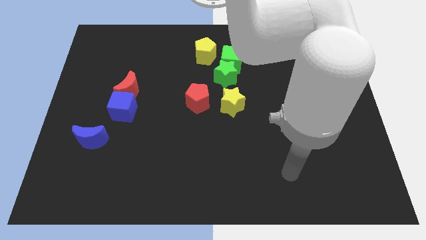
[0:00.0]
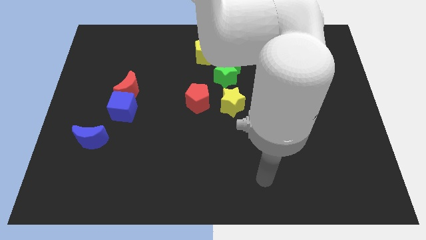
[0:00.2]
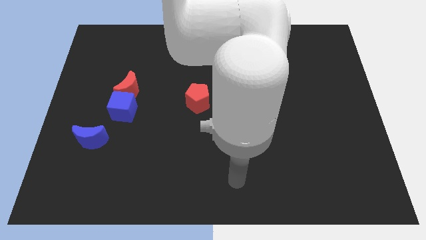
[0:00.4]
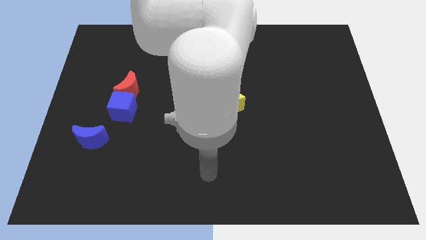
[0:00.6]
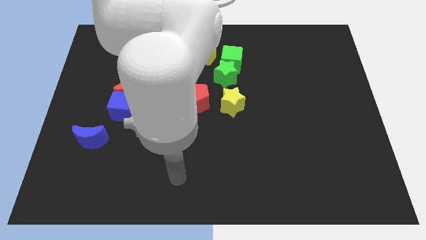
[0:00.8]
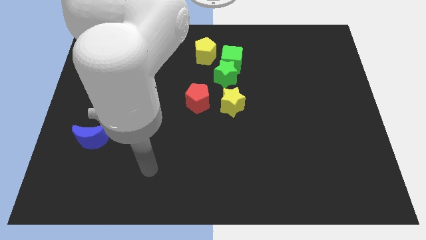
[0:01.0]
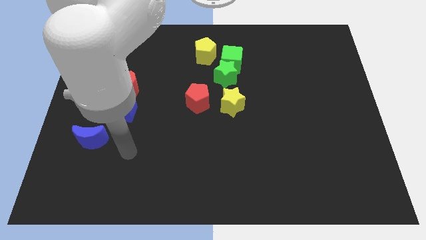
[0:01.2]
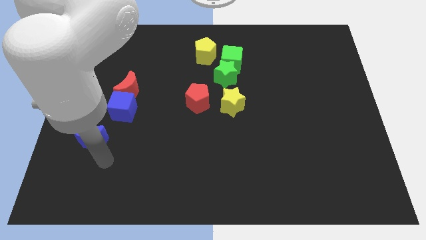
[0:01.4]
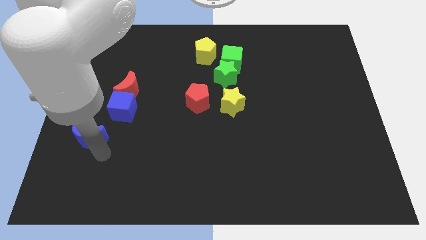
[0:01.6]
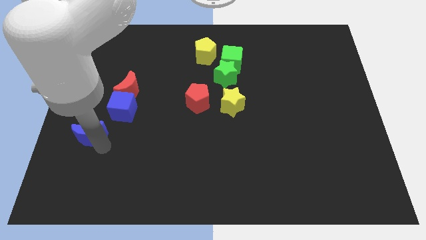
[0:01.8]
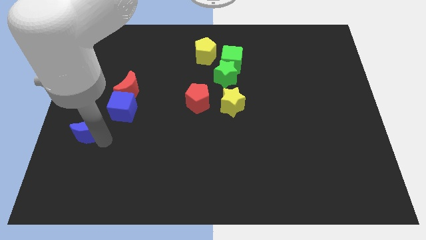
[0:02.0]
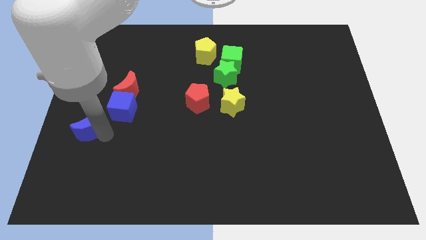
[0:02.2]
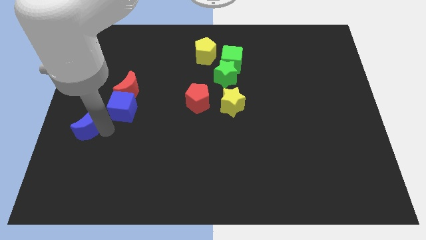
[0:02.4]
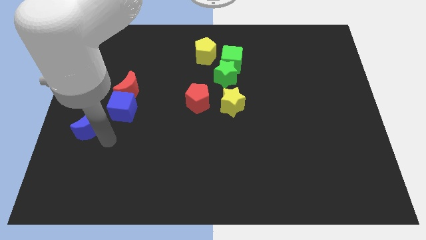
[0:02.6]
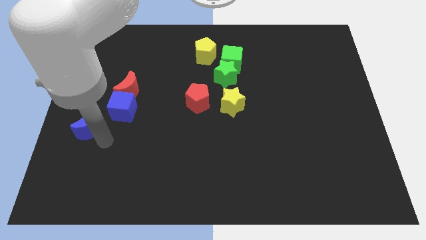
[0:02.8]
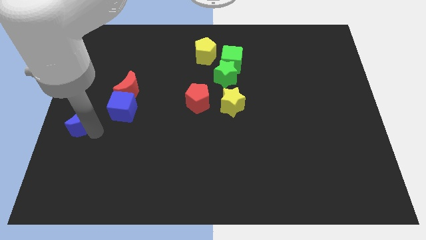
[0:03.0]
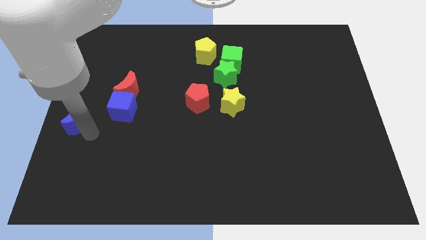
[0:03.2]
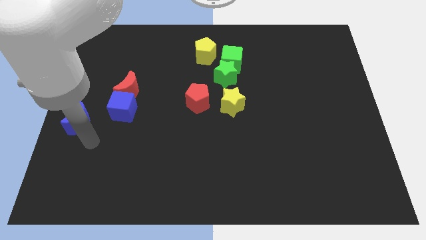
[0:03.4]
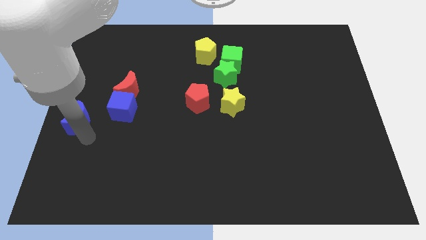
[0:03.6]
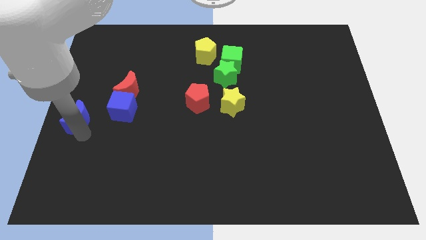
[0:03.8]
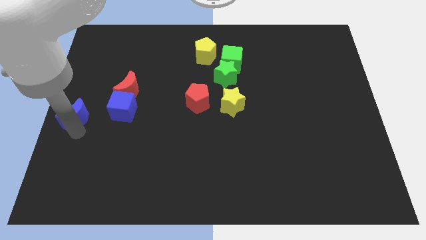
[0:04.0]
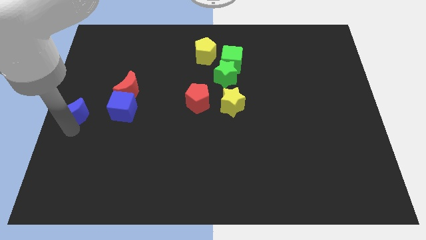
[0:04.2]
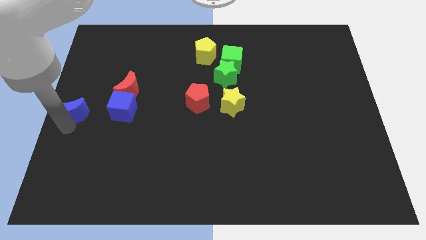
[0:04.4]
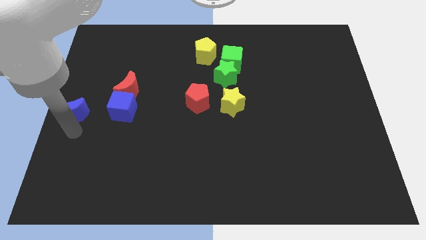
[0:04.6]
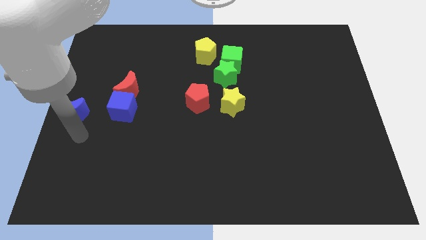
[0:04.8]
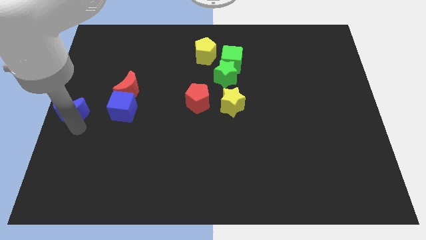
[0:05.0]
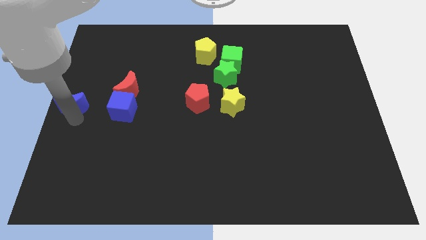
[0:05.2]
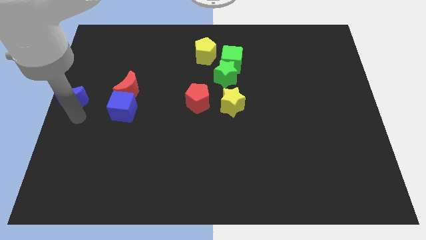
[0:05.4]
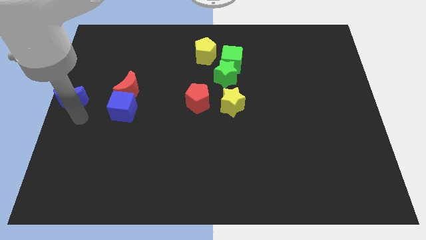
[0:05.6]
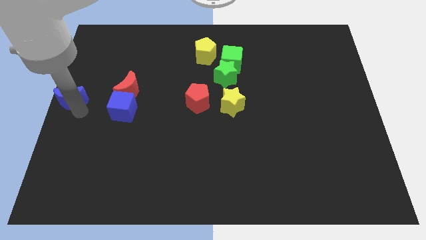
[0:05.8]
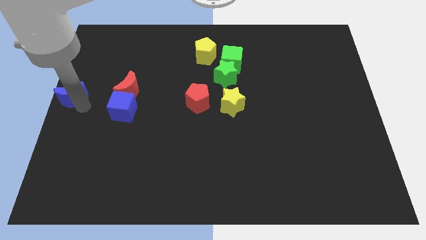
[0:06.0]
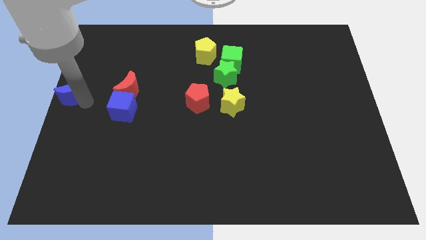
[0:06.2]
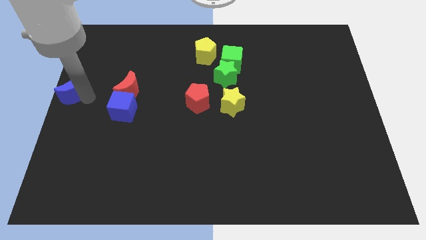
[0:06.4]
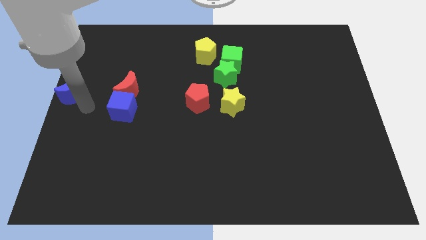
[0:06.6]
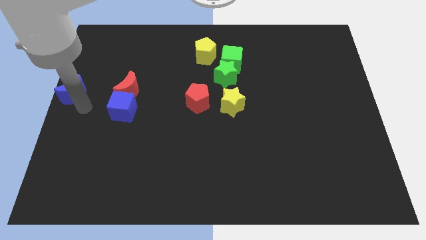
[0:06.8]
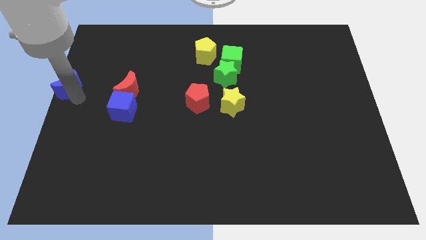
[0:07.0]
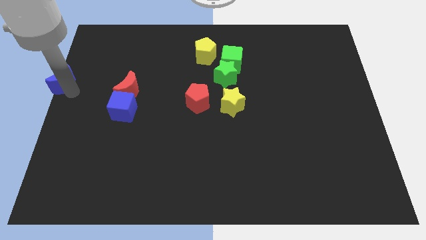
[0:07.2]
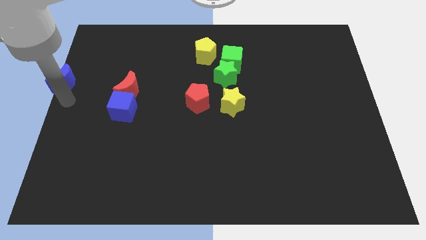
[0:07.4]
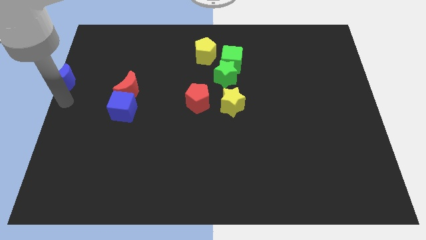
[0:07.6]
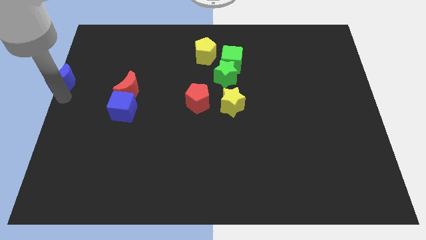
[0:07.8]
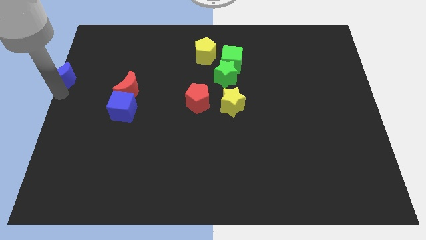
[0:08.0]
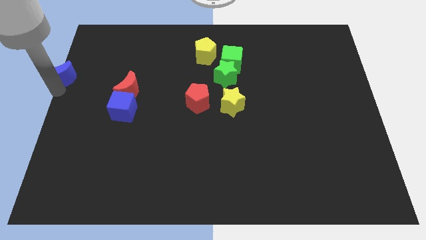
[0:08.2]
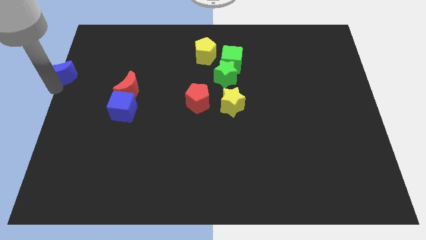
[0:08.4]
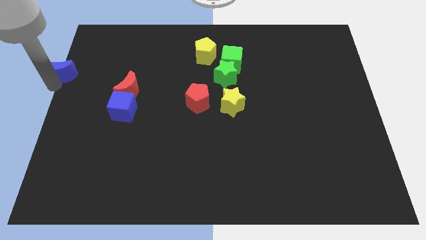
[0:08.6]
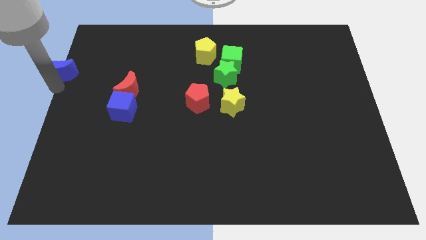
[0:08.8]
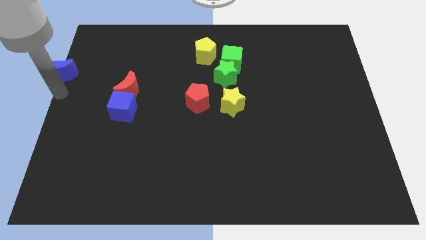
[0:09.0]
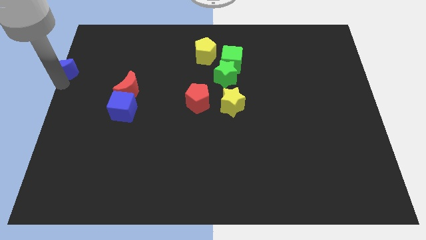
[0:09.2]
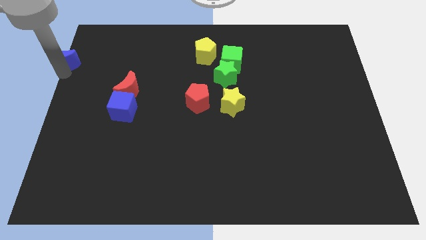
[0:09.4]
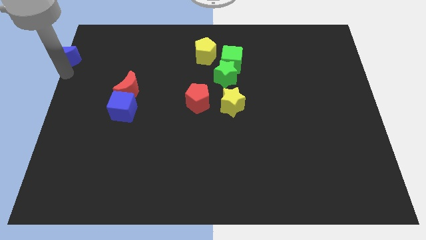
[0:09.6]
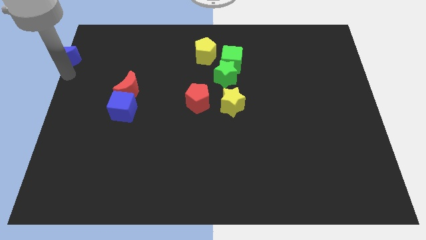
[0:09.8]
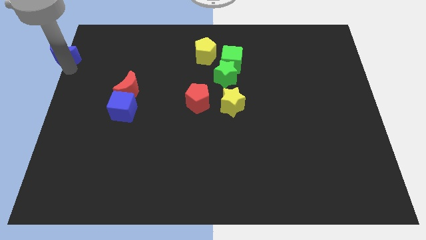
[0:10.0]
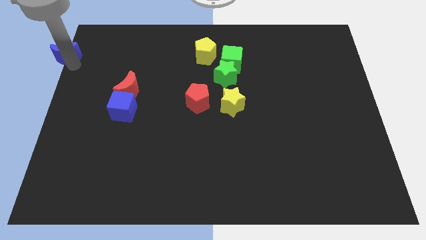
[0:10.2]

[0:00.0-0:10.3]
move the blue moon to the top left of the board

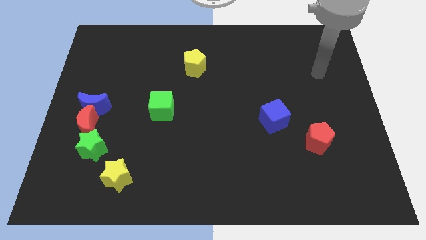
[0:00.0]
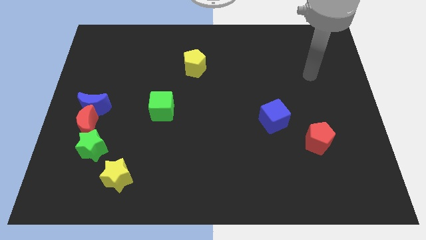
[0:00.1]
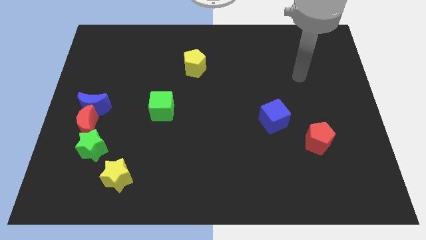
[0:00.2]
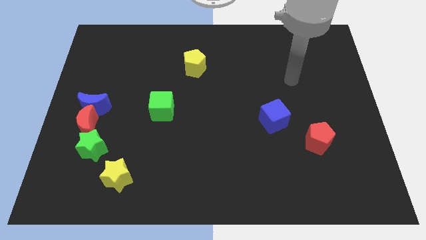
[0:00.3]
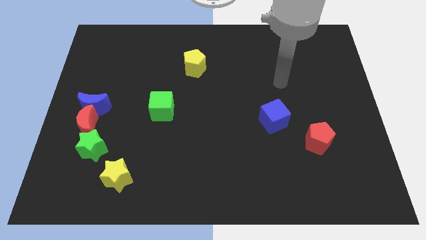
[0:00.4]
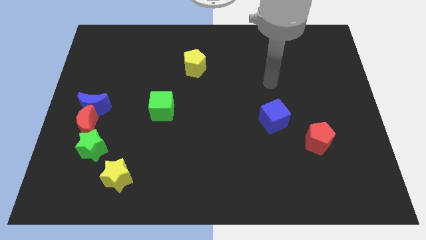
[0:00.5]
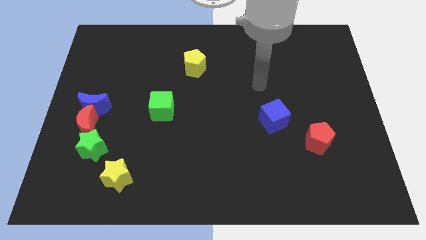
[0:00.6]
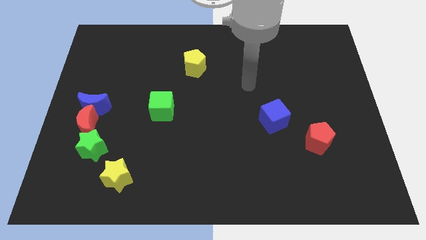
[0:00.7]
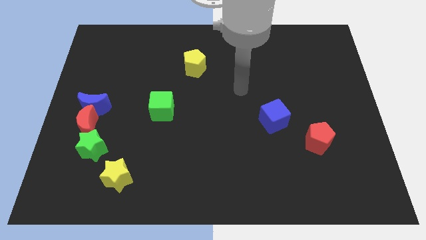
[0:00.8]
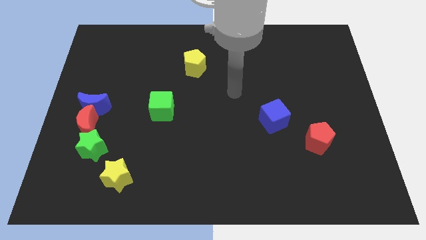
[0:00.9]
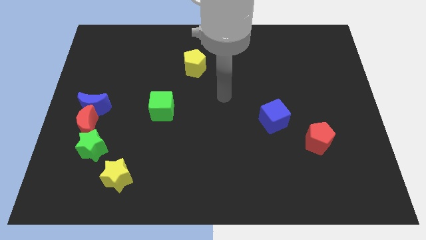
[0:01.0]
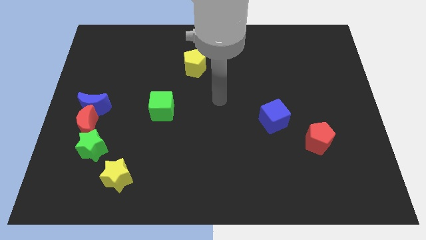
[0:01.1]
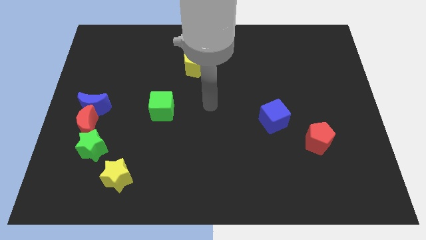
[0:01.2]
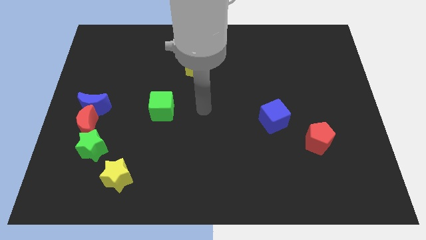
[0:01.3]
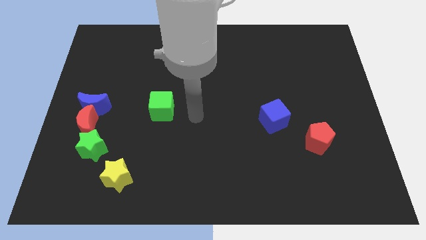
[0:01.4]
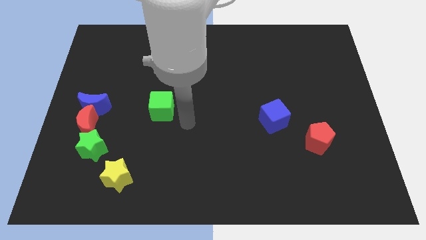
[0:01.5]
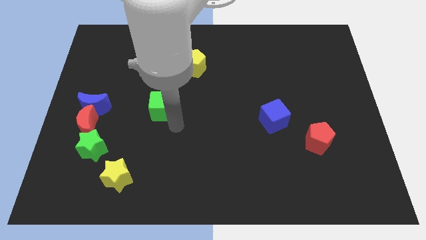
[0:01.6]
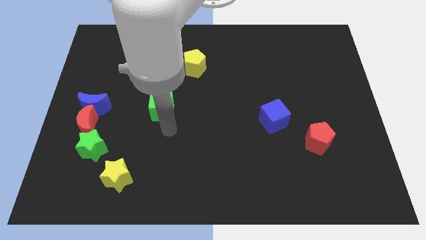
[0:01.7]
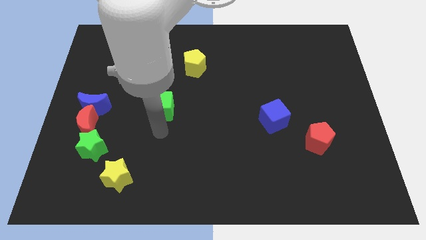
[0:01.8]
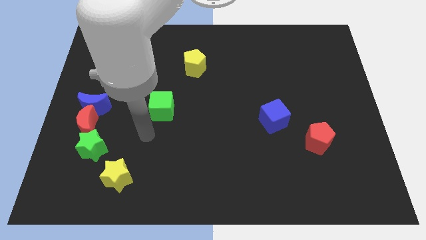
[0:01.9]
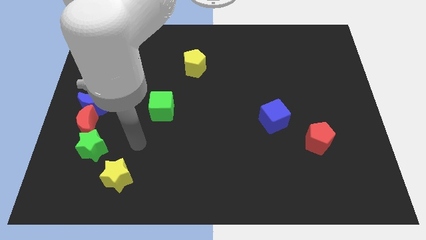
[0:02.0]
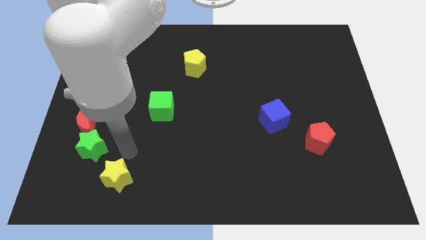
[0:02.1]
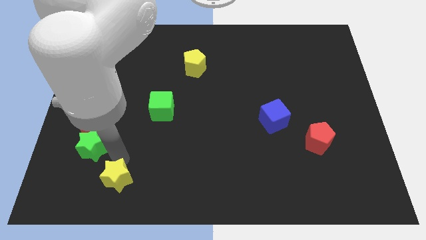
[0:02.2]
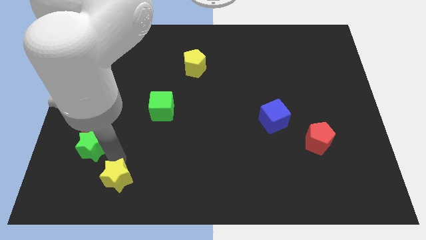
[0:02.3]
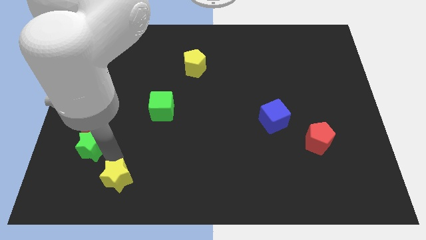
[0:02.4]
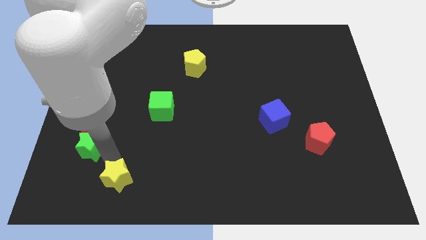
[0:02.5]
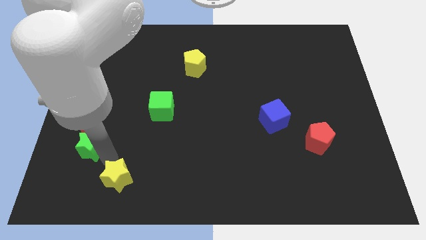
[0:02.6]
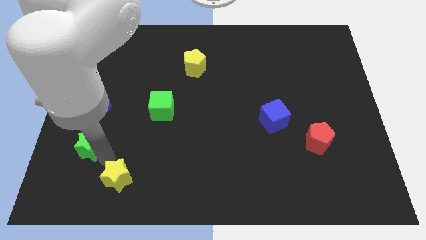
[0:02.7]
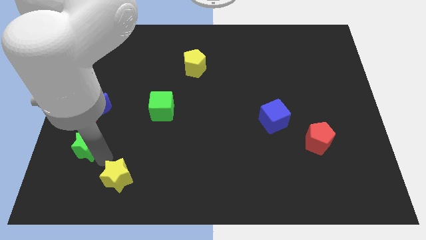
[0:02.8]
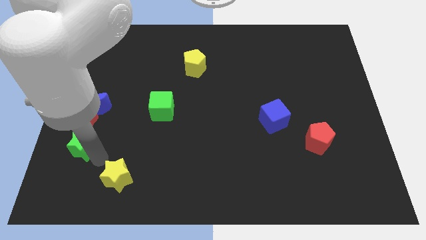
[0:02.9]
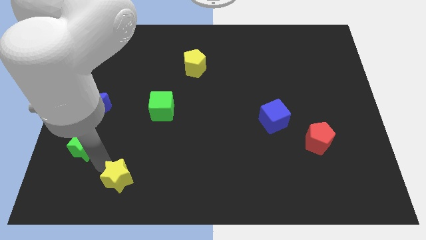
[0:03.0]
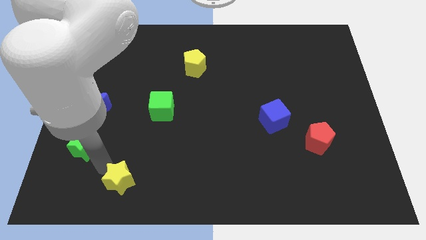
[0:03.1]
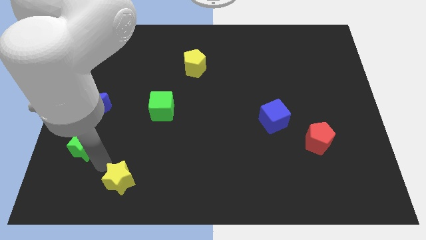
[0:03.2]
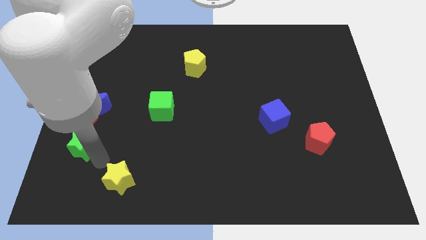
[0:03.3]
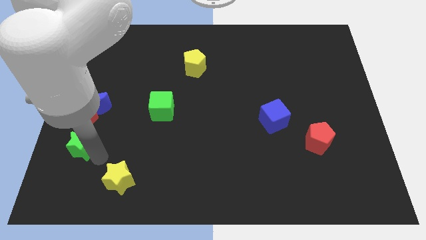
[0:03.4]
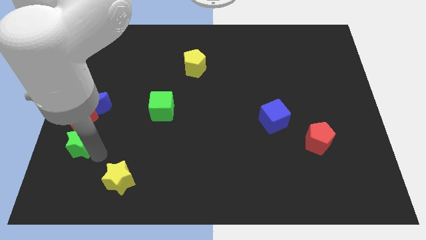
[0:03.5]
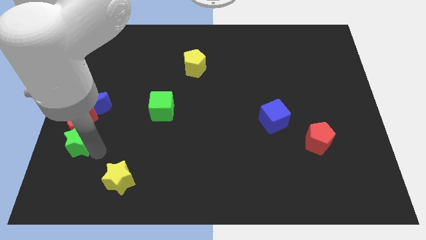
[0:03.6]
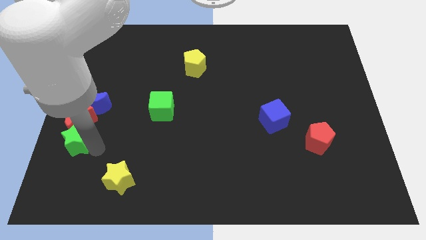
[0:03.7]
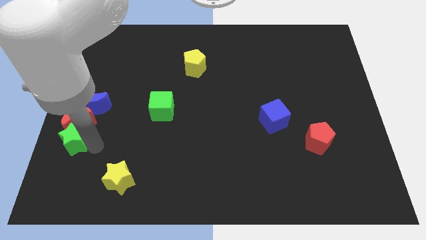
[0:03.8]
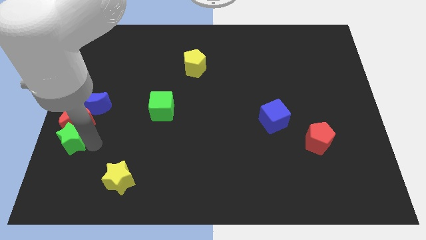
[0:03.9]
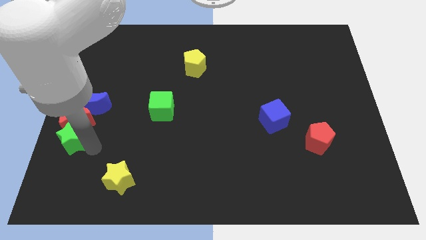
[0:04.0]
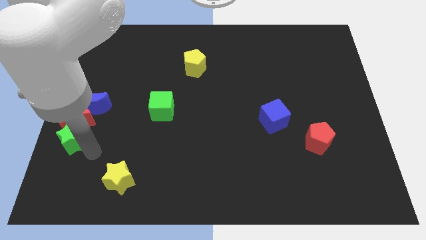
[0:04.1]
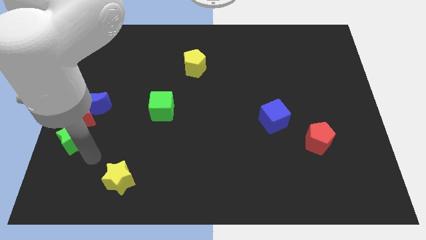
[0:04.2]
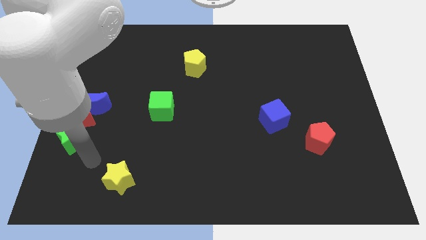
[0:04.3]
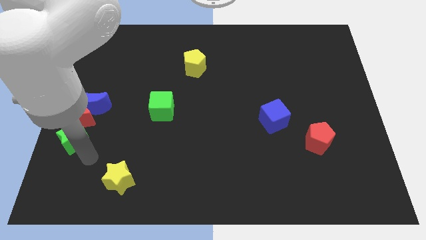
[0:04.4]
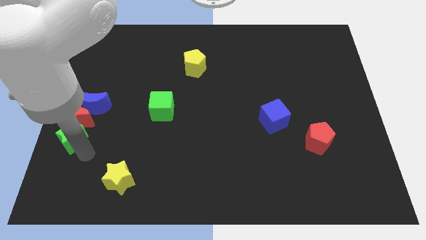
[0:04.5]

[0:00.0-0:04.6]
push the green star to the center left
